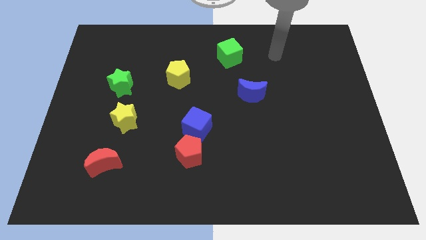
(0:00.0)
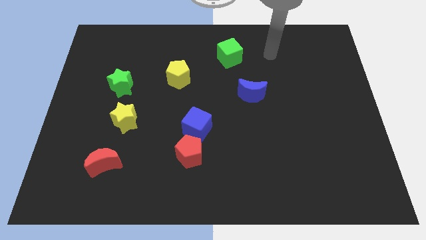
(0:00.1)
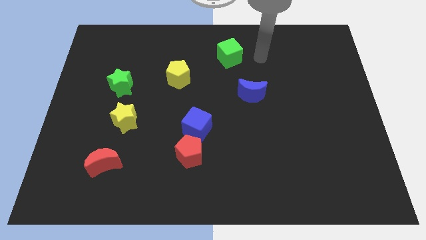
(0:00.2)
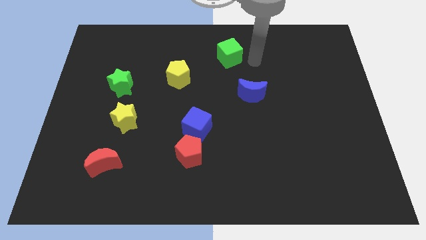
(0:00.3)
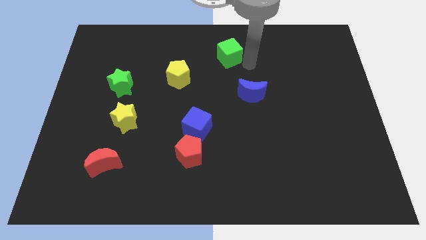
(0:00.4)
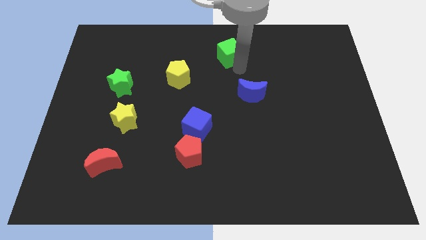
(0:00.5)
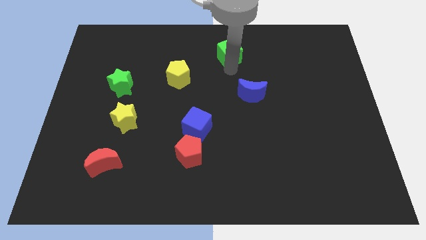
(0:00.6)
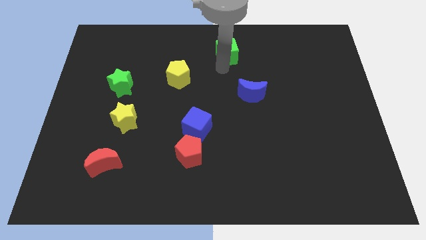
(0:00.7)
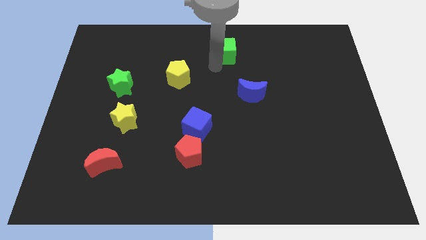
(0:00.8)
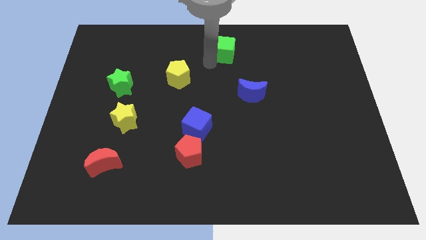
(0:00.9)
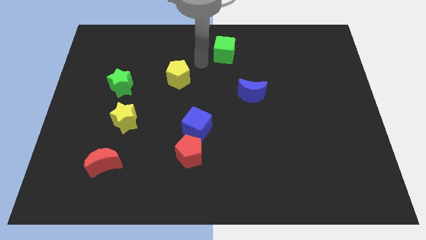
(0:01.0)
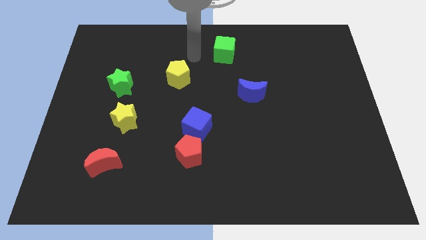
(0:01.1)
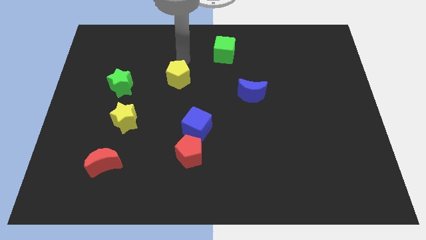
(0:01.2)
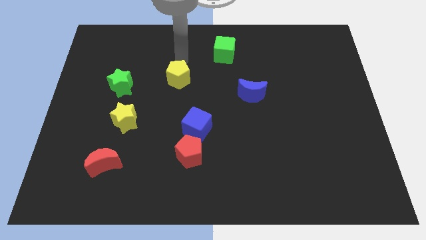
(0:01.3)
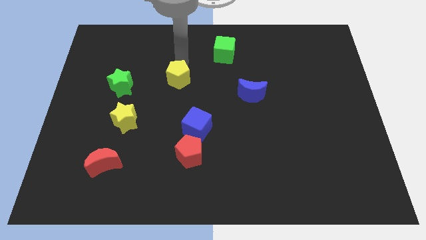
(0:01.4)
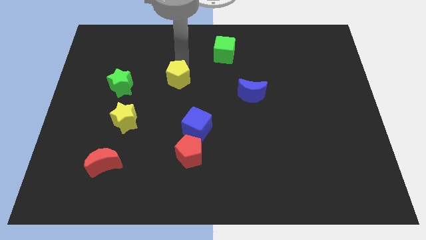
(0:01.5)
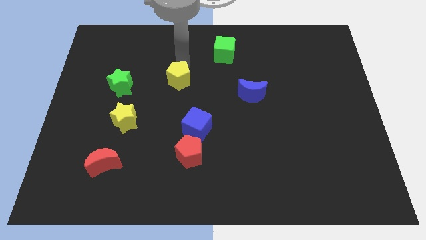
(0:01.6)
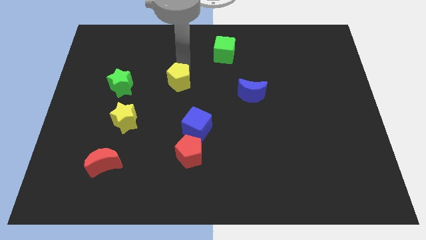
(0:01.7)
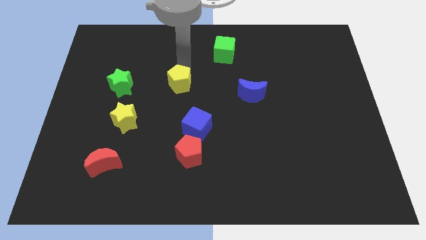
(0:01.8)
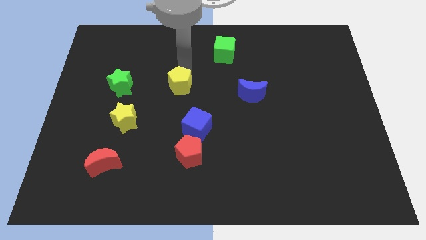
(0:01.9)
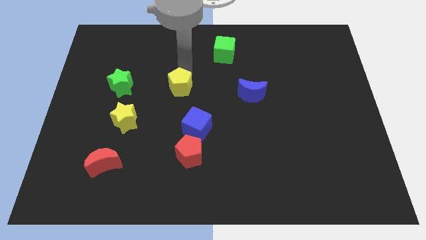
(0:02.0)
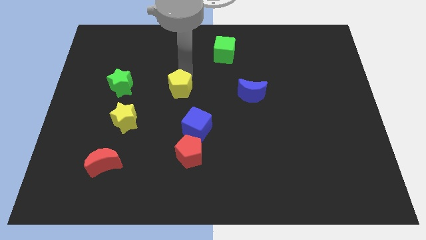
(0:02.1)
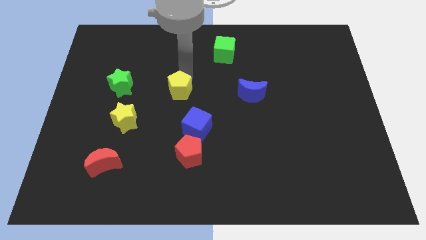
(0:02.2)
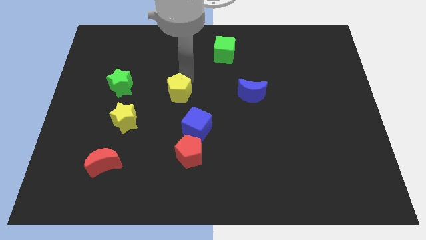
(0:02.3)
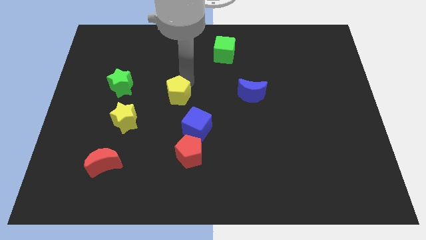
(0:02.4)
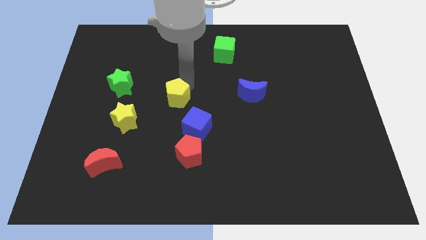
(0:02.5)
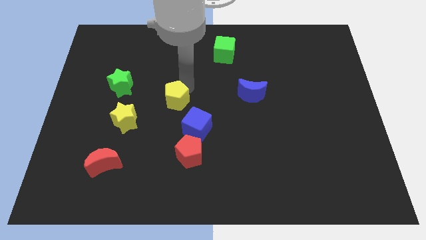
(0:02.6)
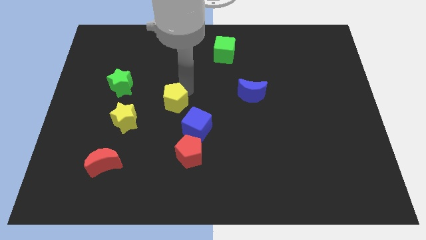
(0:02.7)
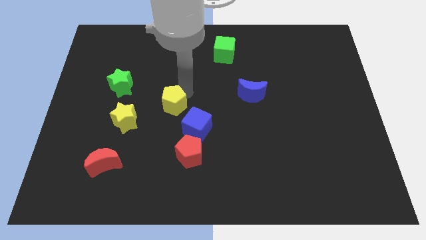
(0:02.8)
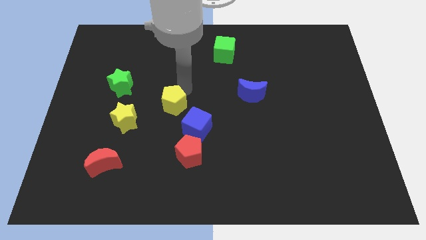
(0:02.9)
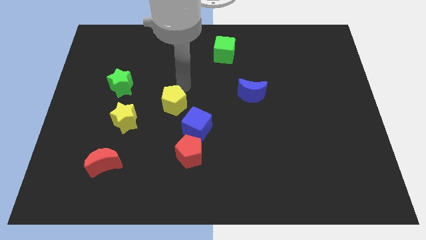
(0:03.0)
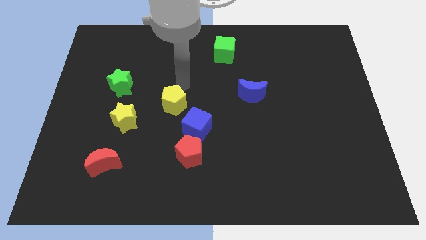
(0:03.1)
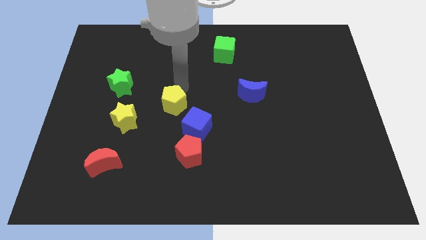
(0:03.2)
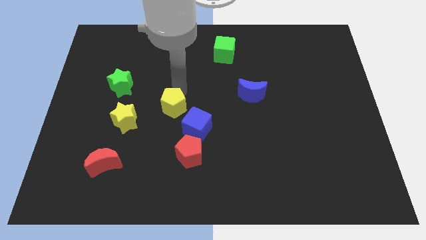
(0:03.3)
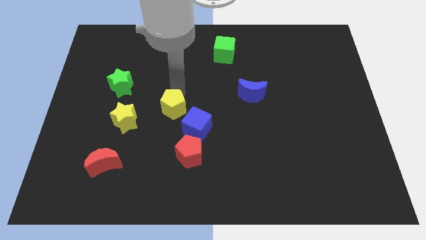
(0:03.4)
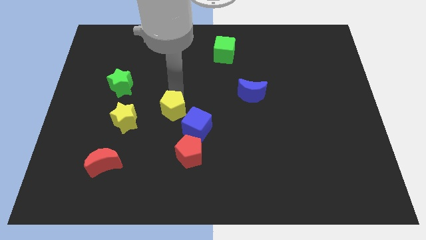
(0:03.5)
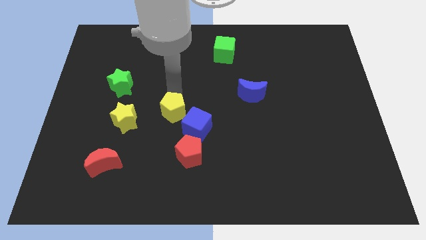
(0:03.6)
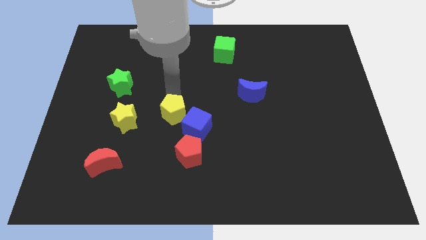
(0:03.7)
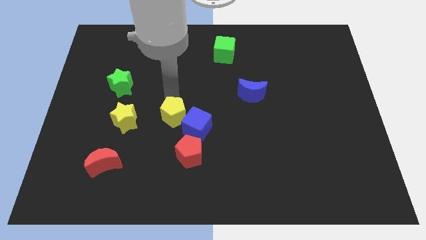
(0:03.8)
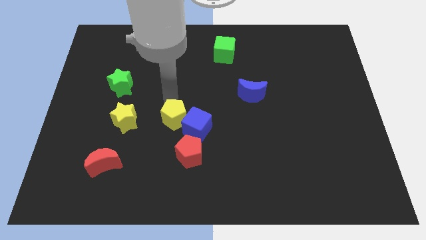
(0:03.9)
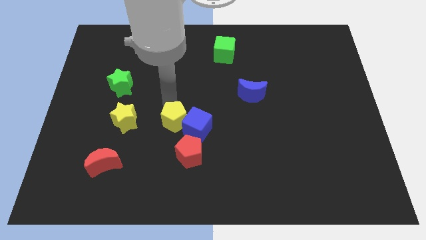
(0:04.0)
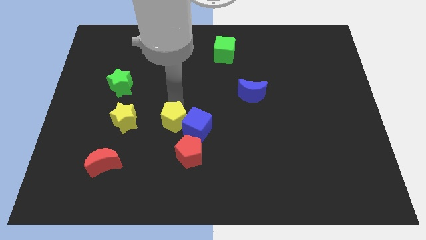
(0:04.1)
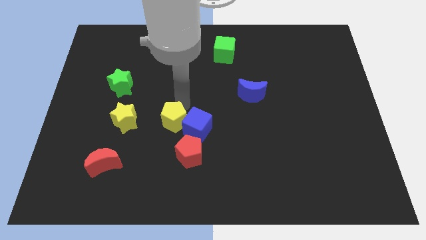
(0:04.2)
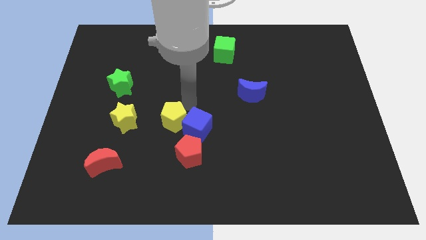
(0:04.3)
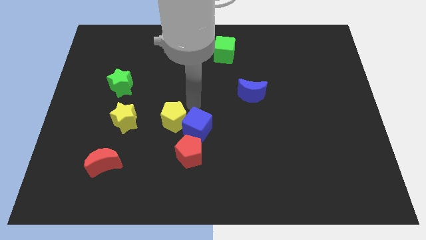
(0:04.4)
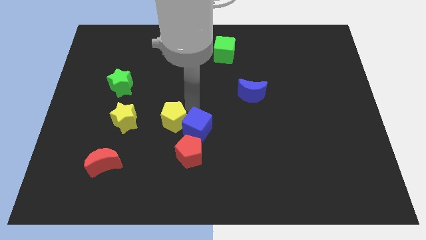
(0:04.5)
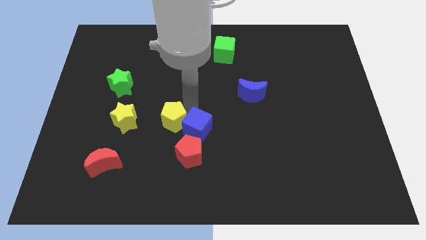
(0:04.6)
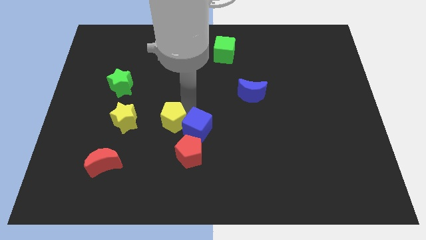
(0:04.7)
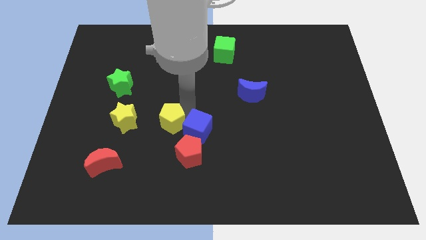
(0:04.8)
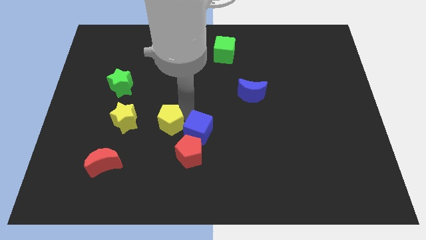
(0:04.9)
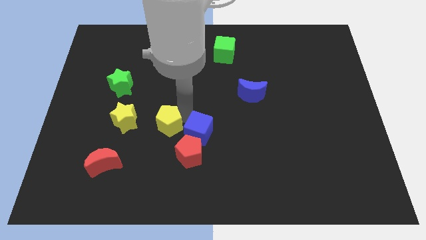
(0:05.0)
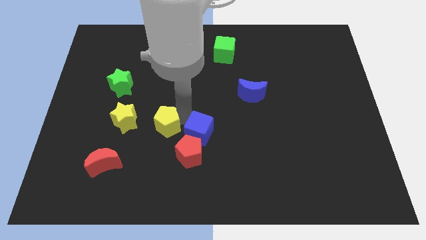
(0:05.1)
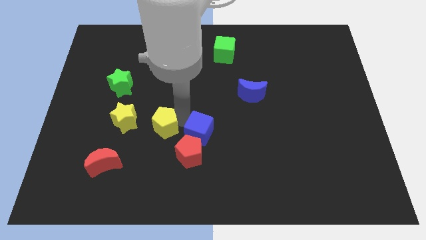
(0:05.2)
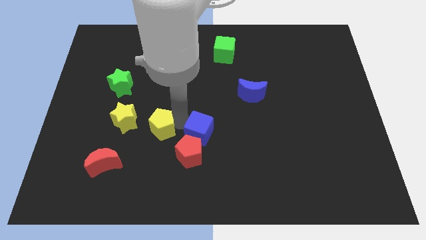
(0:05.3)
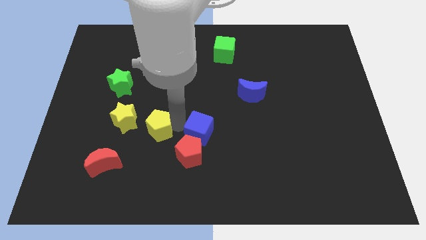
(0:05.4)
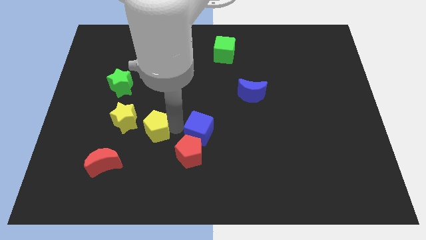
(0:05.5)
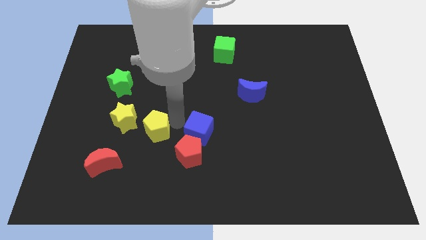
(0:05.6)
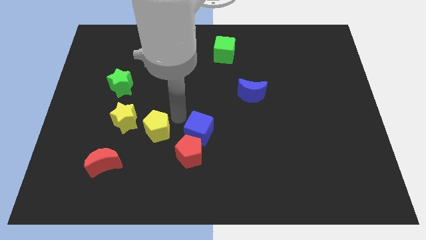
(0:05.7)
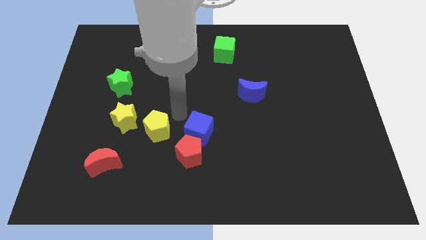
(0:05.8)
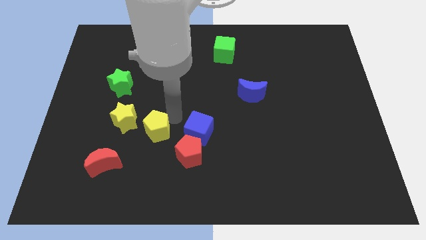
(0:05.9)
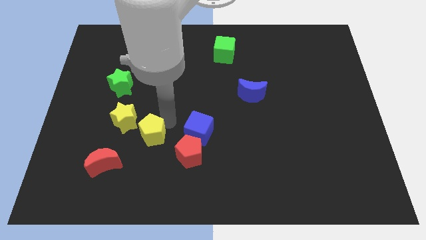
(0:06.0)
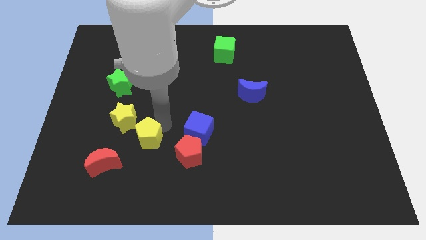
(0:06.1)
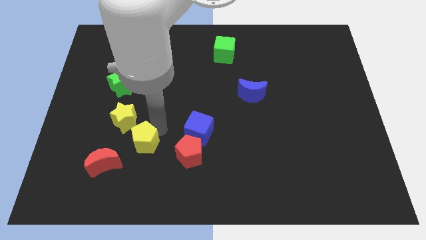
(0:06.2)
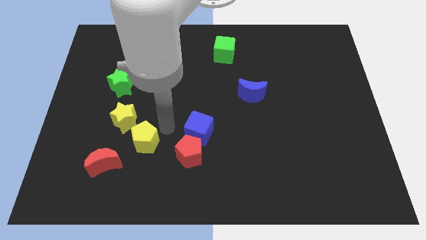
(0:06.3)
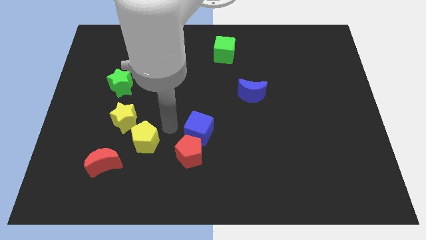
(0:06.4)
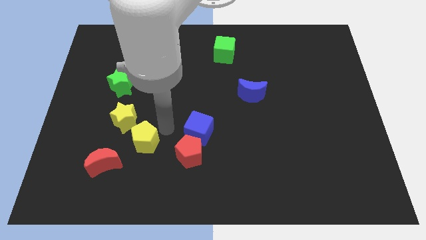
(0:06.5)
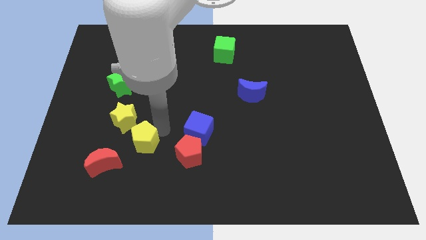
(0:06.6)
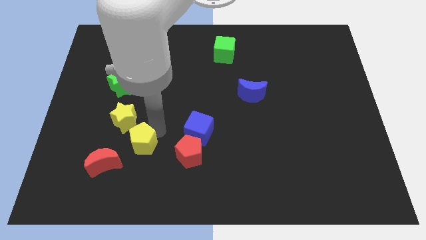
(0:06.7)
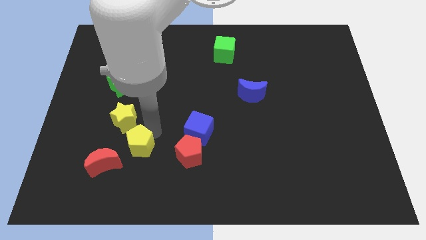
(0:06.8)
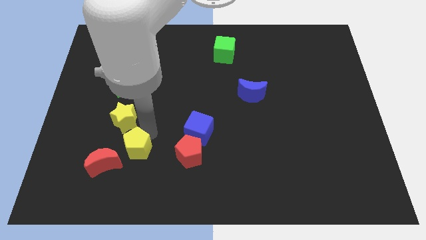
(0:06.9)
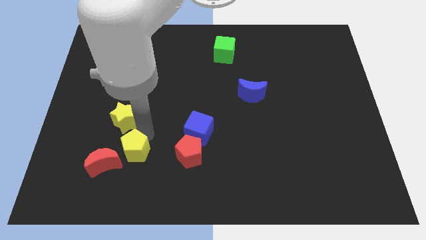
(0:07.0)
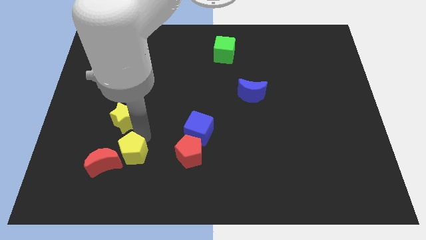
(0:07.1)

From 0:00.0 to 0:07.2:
move the yellow pentagon next to the red moon
